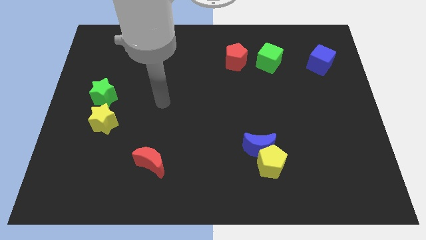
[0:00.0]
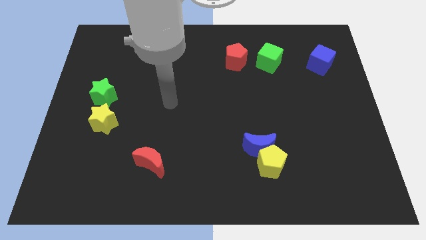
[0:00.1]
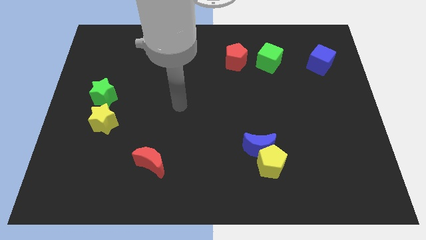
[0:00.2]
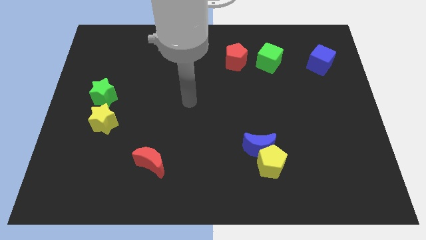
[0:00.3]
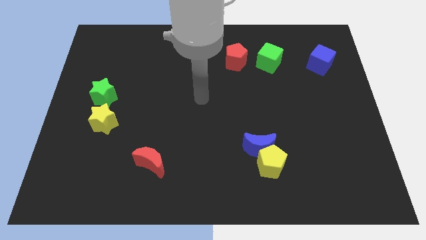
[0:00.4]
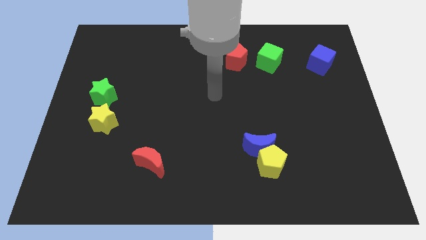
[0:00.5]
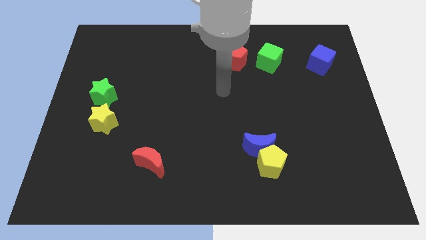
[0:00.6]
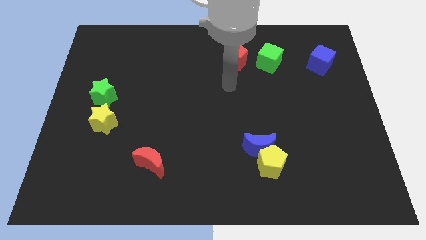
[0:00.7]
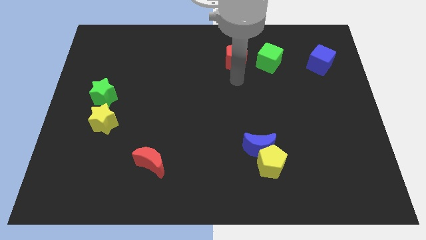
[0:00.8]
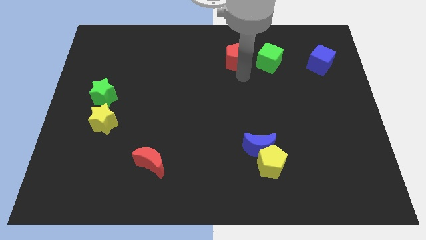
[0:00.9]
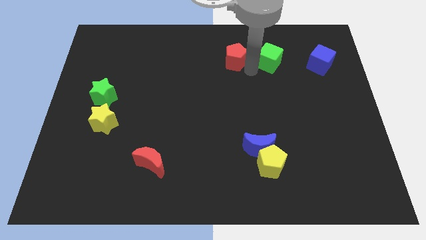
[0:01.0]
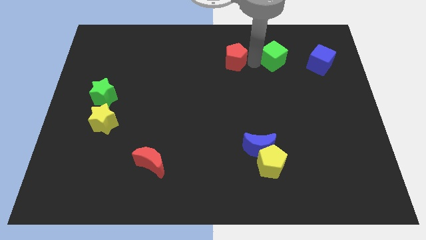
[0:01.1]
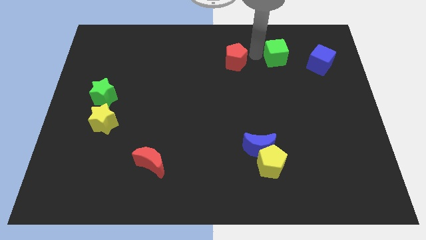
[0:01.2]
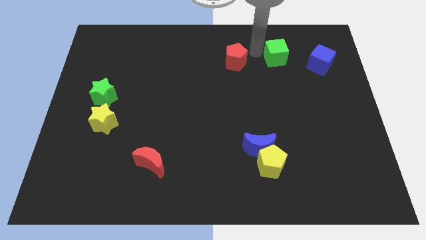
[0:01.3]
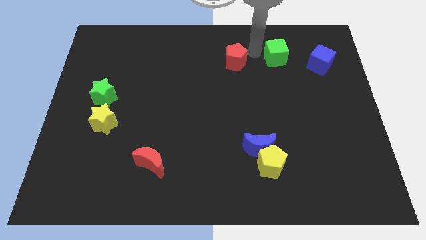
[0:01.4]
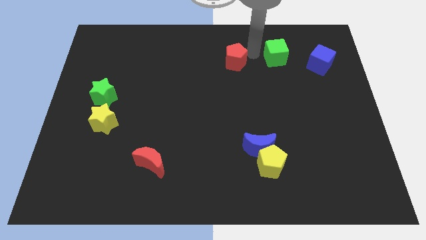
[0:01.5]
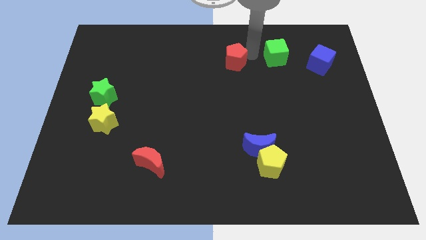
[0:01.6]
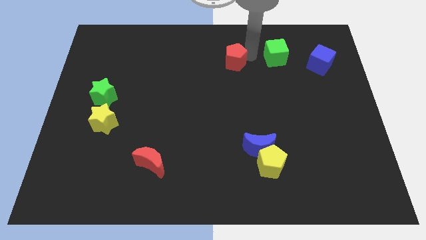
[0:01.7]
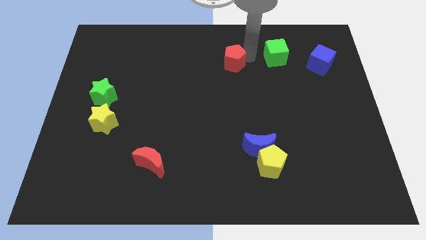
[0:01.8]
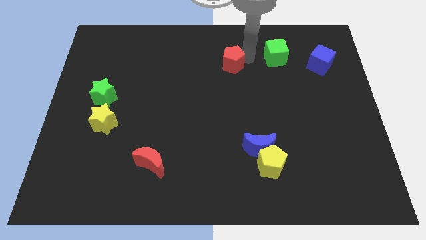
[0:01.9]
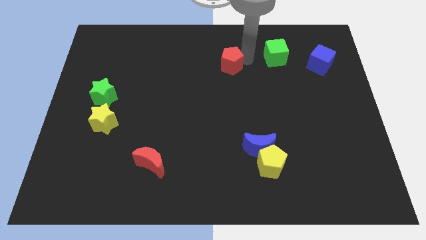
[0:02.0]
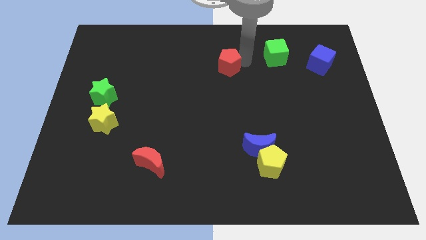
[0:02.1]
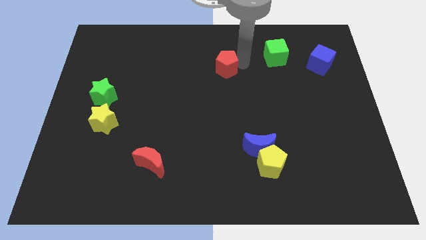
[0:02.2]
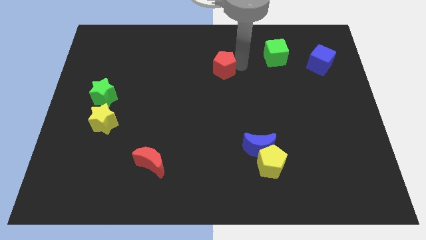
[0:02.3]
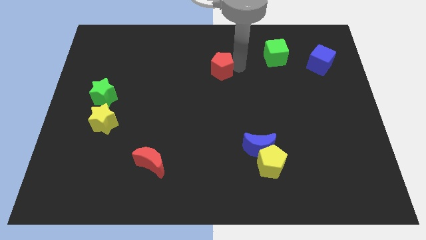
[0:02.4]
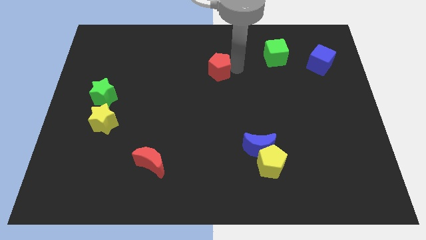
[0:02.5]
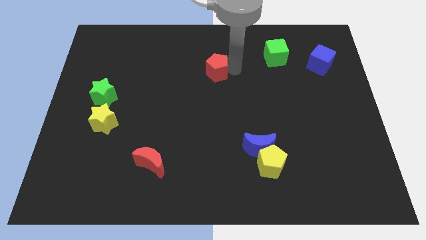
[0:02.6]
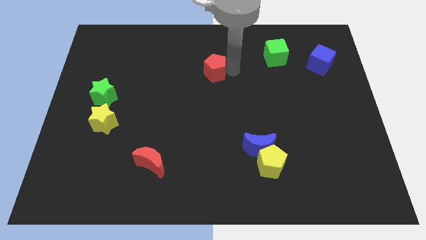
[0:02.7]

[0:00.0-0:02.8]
slightly move the red pentagon downwards and left diagonally

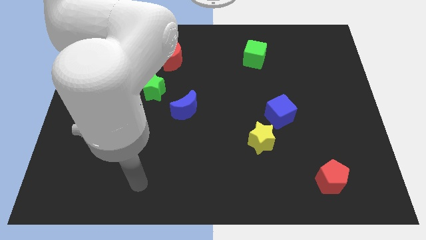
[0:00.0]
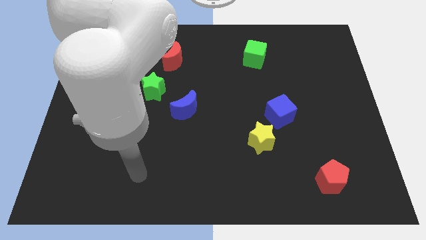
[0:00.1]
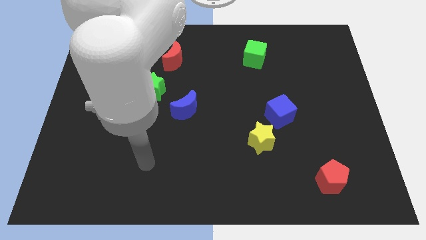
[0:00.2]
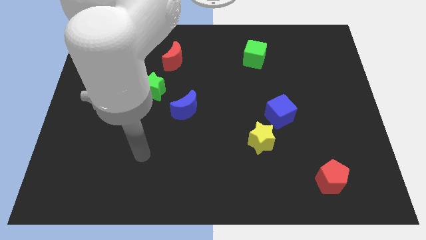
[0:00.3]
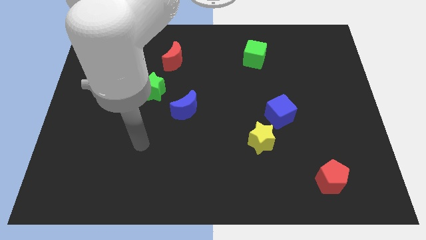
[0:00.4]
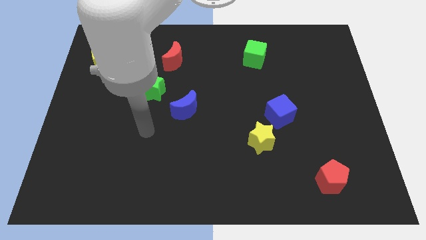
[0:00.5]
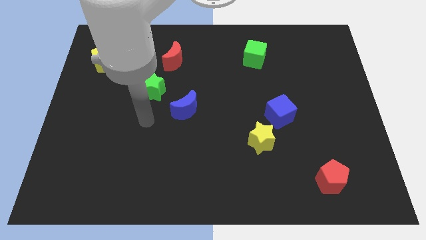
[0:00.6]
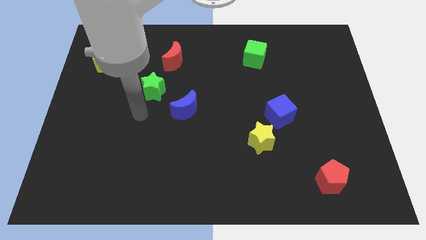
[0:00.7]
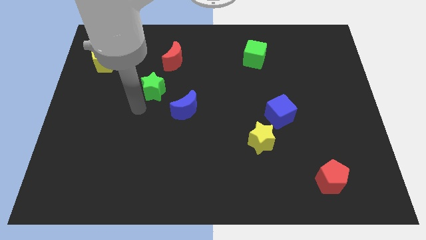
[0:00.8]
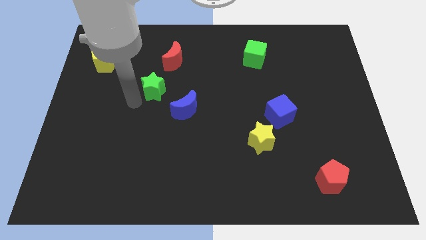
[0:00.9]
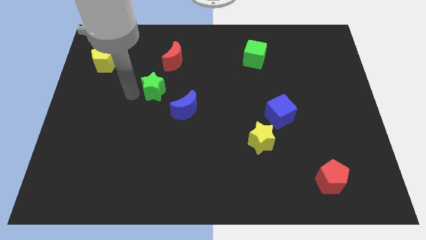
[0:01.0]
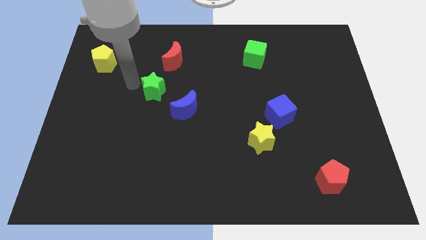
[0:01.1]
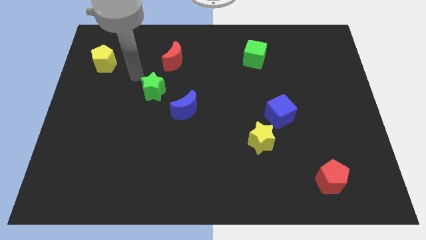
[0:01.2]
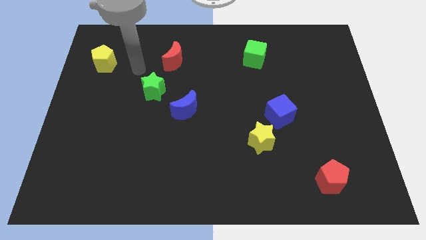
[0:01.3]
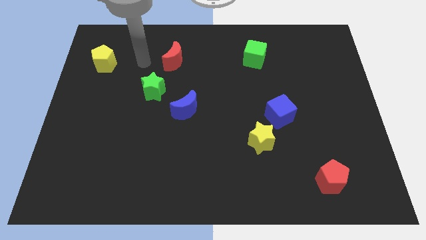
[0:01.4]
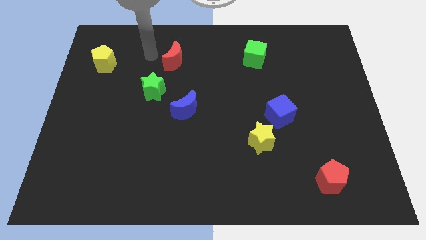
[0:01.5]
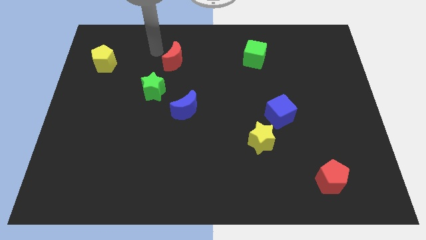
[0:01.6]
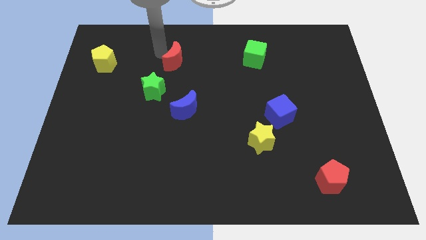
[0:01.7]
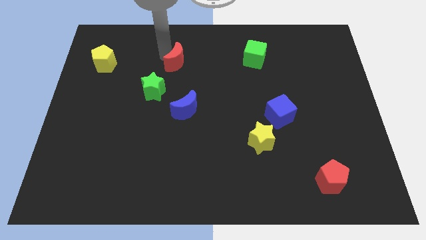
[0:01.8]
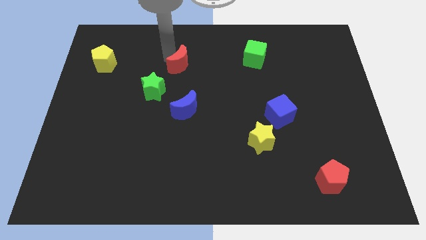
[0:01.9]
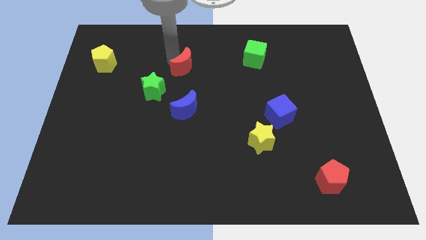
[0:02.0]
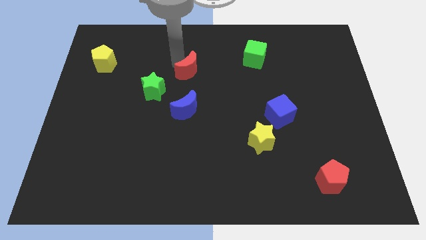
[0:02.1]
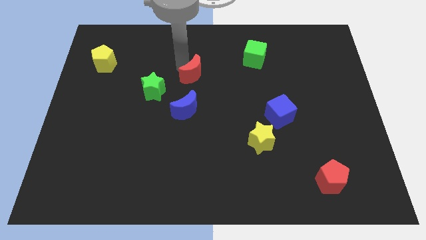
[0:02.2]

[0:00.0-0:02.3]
slightly move the red moon down and right

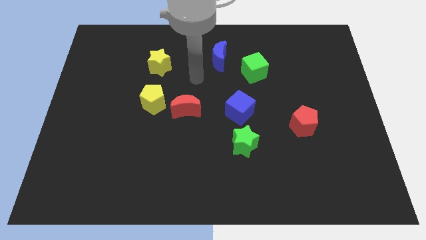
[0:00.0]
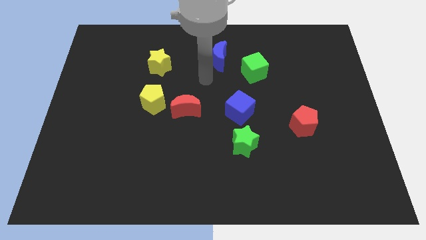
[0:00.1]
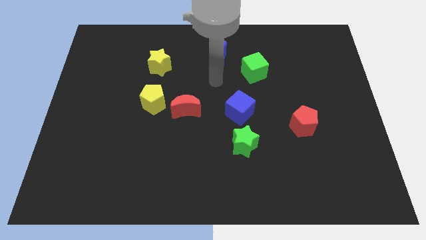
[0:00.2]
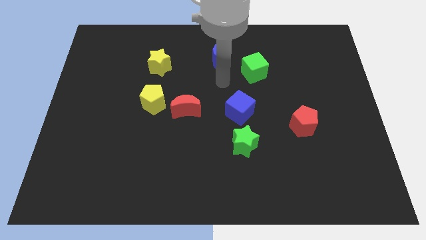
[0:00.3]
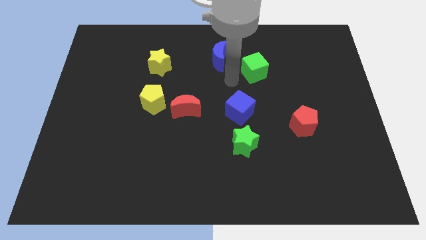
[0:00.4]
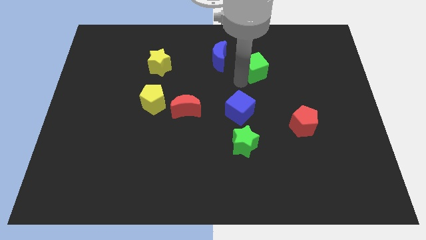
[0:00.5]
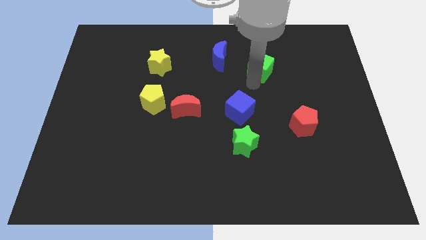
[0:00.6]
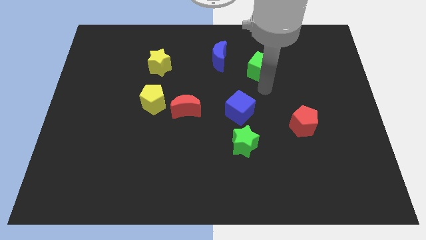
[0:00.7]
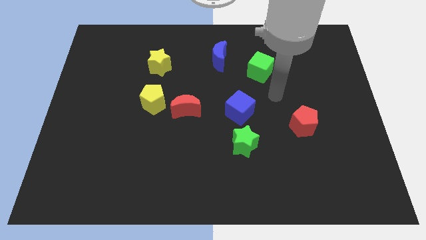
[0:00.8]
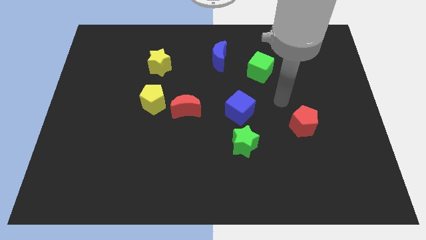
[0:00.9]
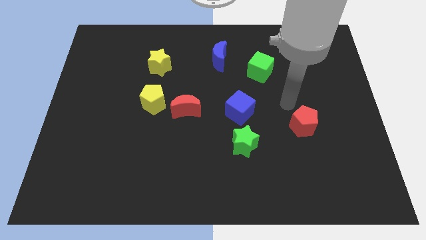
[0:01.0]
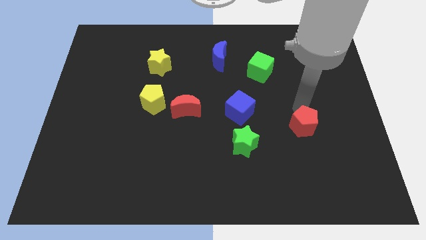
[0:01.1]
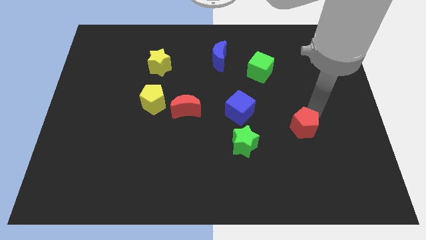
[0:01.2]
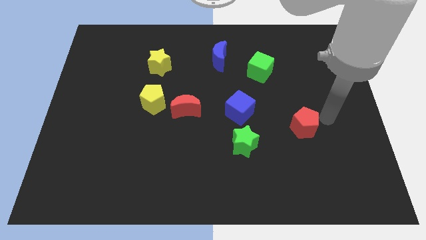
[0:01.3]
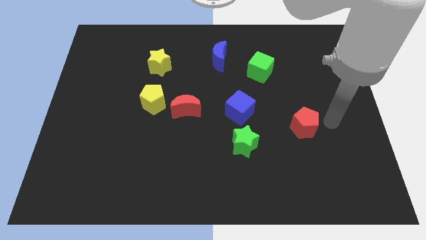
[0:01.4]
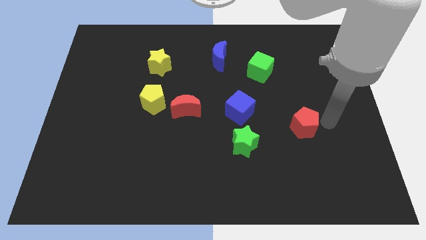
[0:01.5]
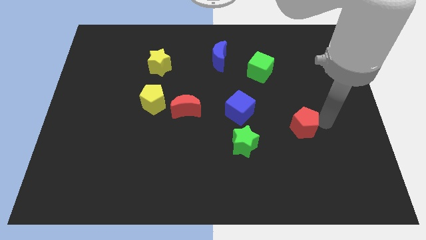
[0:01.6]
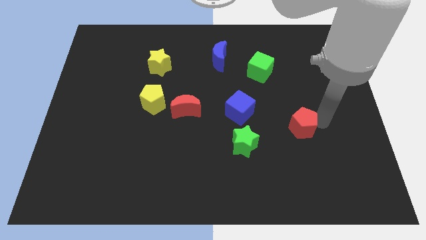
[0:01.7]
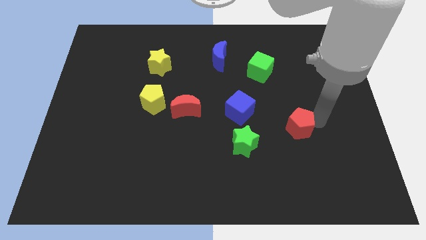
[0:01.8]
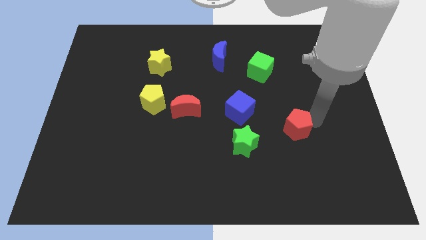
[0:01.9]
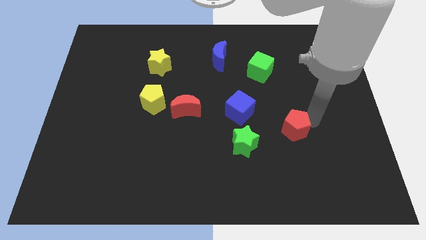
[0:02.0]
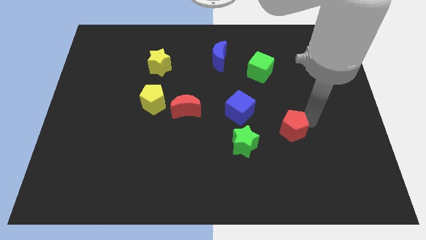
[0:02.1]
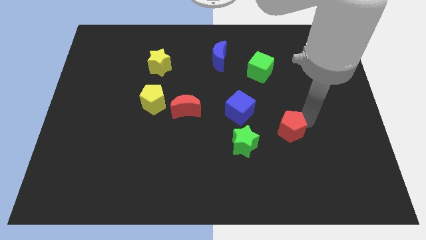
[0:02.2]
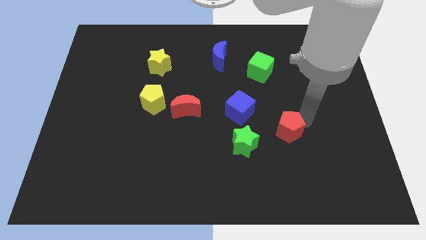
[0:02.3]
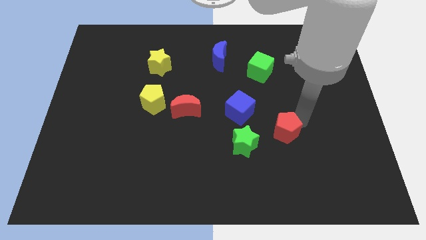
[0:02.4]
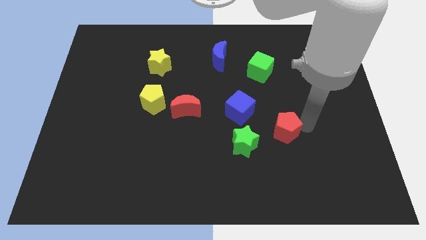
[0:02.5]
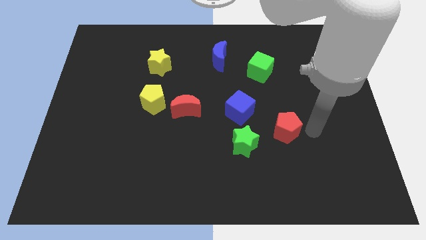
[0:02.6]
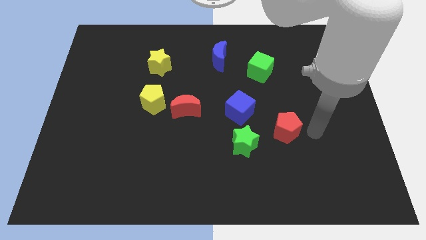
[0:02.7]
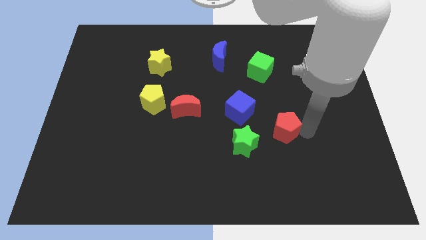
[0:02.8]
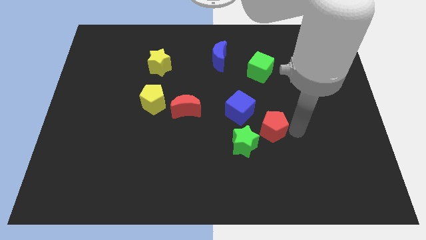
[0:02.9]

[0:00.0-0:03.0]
slide the red pentagon somewhat left

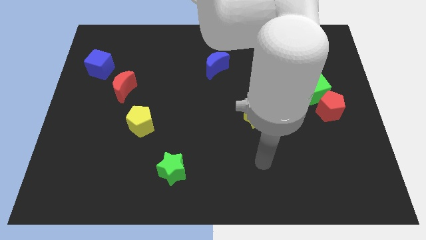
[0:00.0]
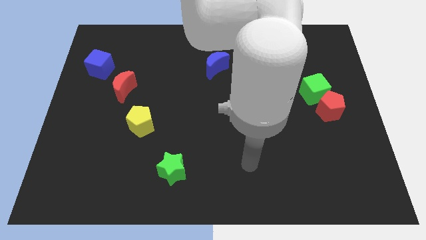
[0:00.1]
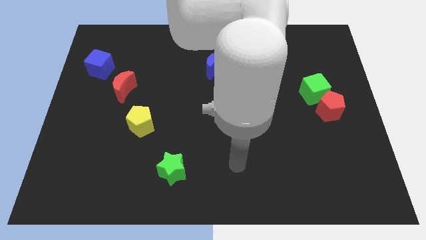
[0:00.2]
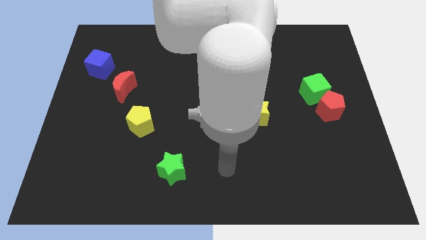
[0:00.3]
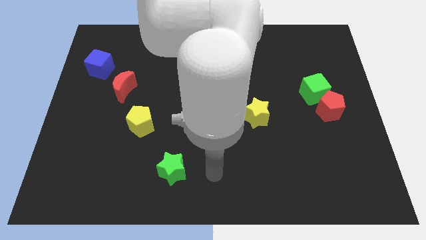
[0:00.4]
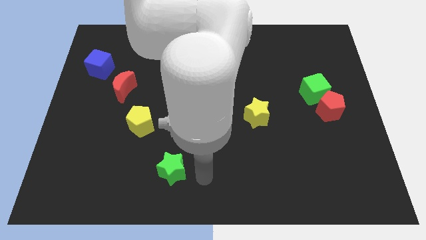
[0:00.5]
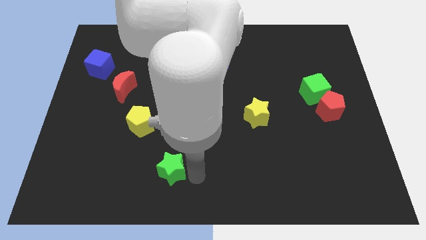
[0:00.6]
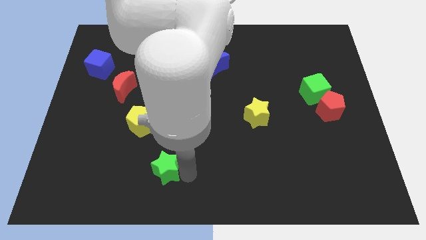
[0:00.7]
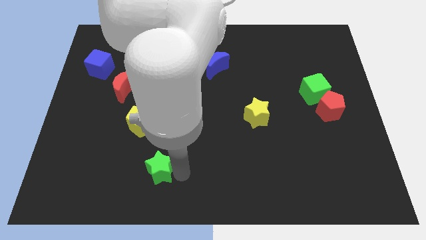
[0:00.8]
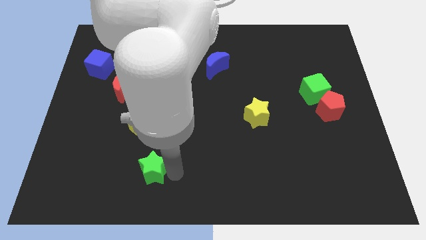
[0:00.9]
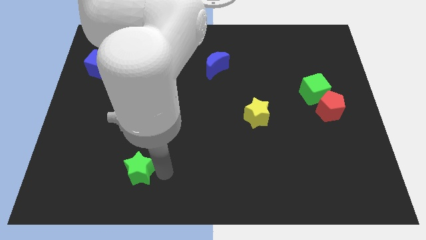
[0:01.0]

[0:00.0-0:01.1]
slightly slide the green star left
